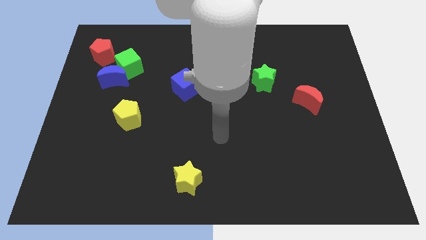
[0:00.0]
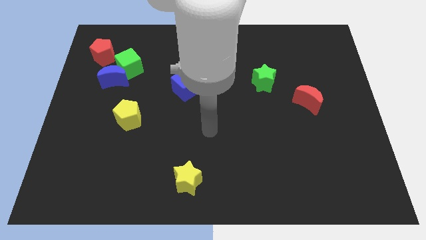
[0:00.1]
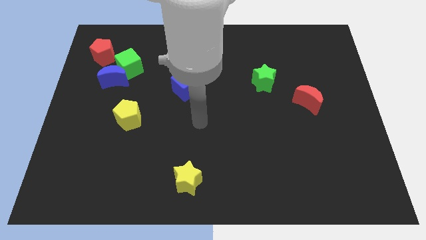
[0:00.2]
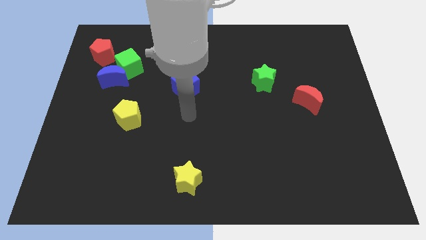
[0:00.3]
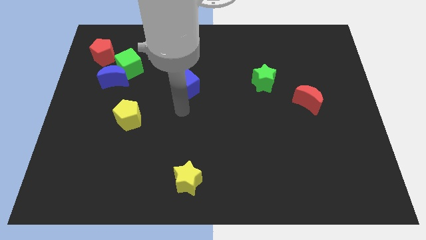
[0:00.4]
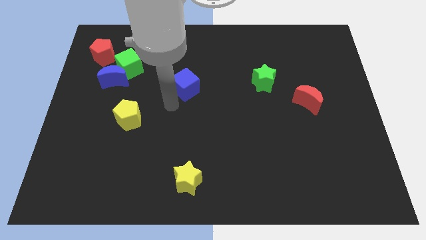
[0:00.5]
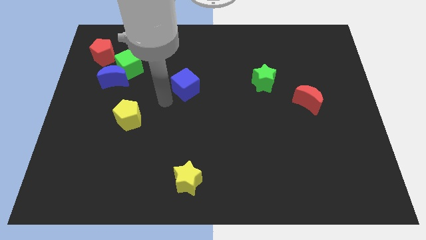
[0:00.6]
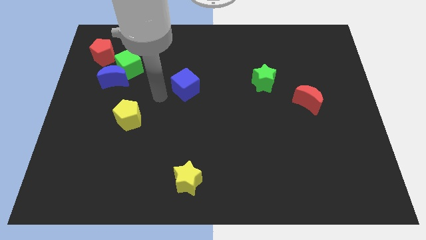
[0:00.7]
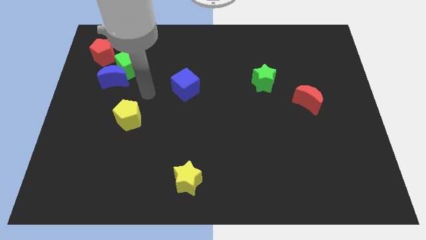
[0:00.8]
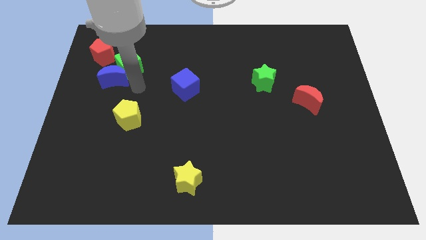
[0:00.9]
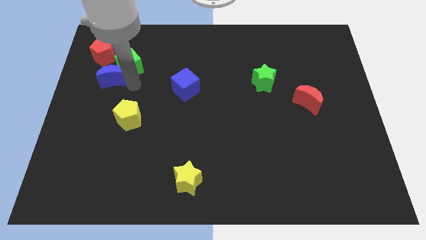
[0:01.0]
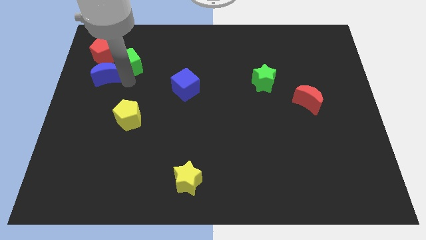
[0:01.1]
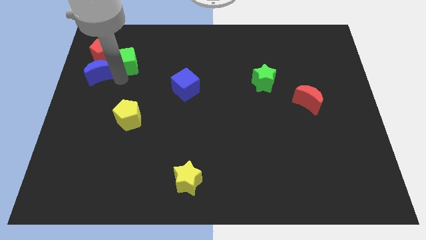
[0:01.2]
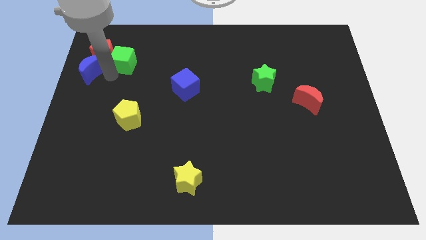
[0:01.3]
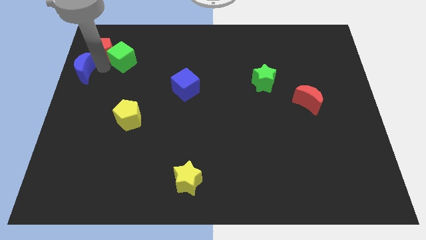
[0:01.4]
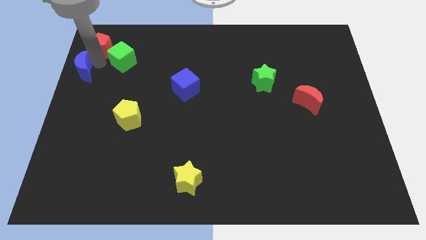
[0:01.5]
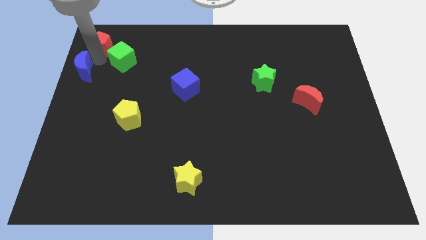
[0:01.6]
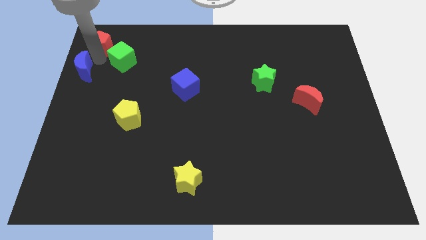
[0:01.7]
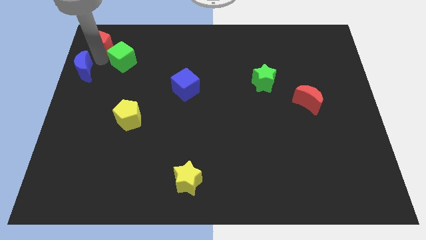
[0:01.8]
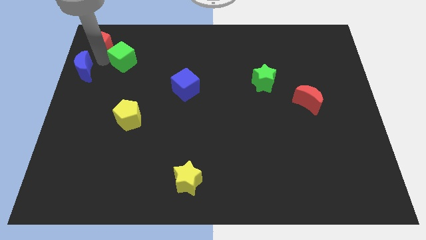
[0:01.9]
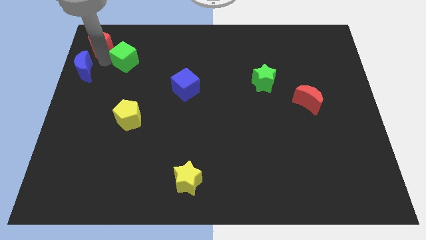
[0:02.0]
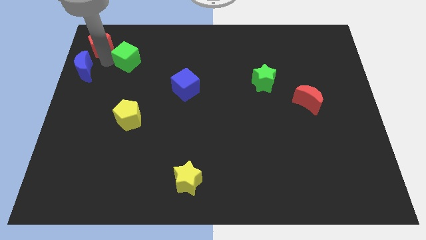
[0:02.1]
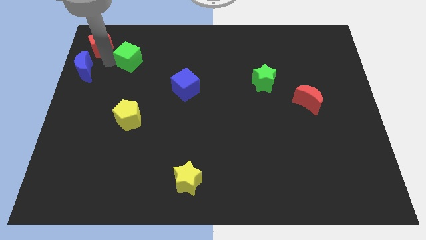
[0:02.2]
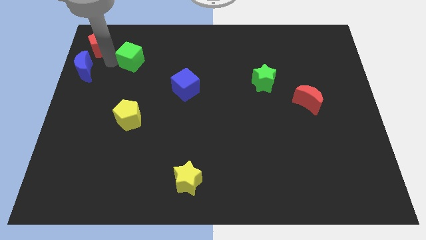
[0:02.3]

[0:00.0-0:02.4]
move the green cube away from the blue moon and red pentagon

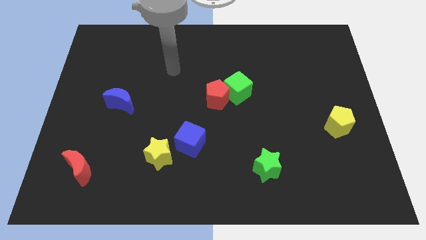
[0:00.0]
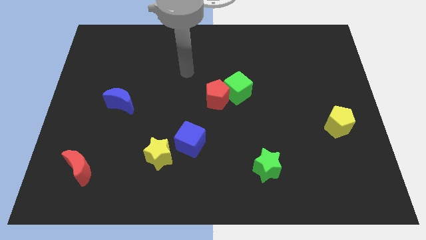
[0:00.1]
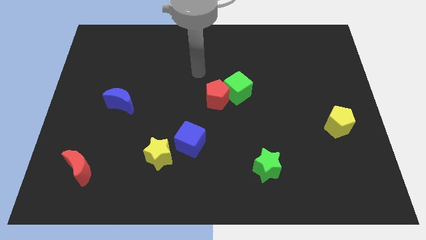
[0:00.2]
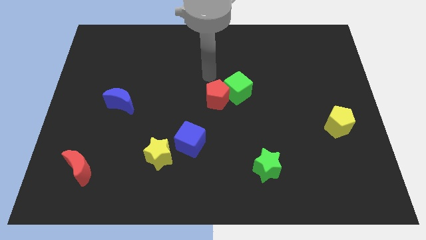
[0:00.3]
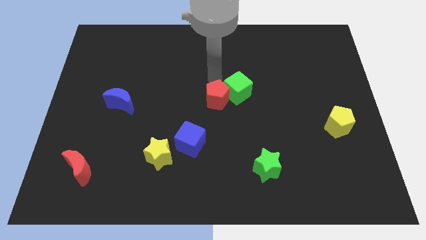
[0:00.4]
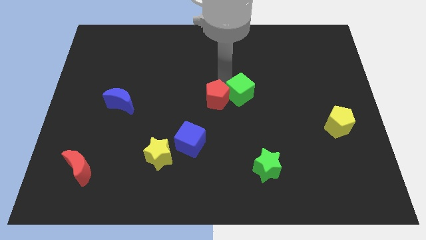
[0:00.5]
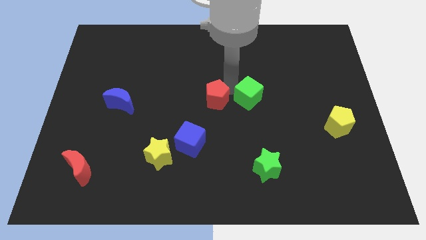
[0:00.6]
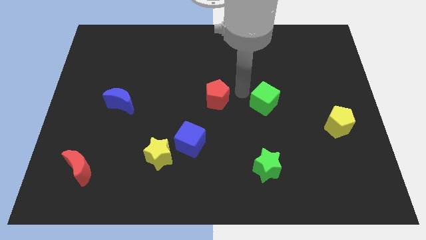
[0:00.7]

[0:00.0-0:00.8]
move the red pentagon away from the green cube

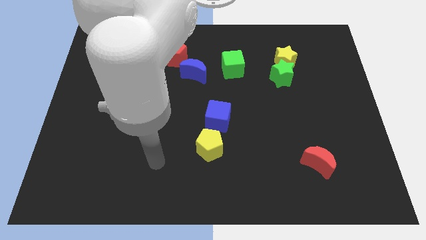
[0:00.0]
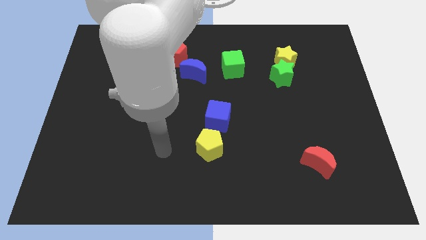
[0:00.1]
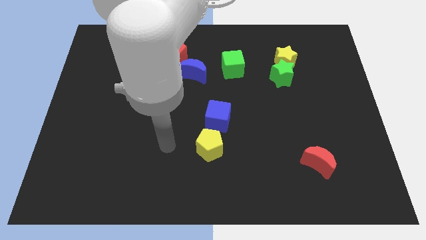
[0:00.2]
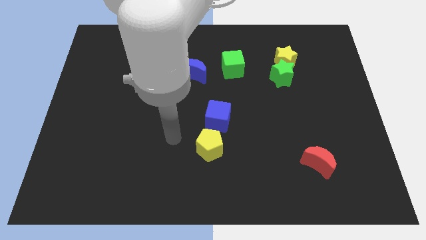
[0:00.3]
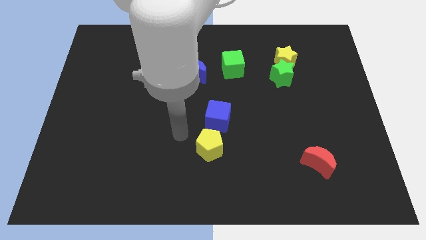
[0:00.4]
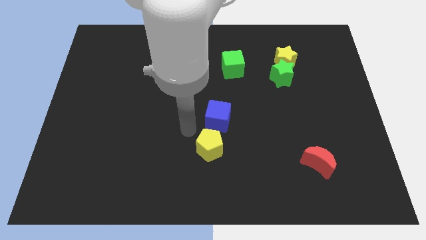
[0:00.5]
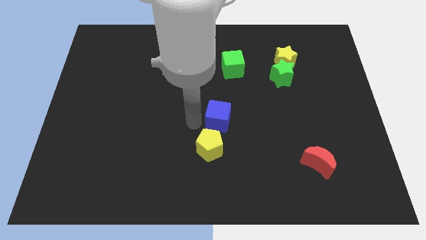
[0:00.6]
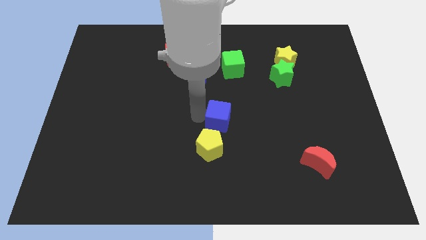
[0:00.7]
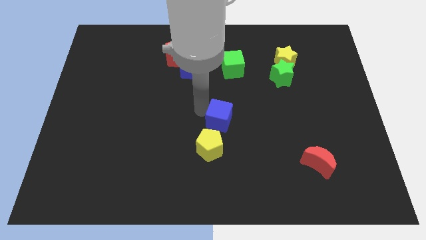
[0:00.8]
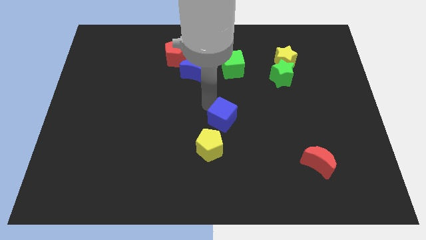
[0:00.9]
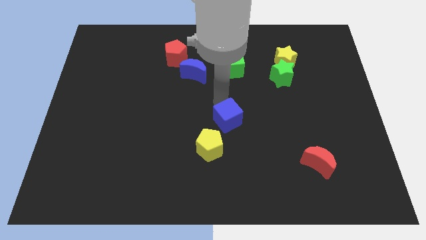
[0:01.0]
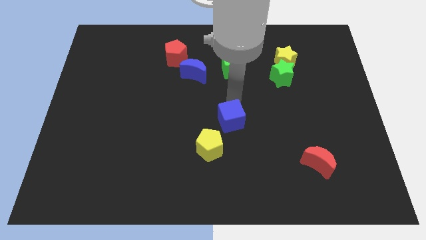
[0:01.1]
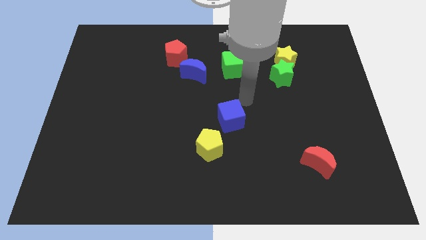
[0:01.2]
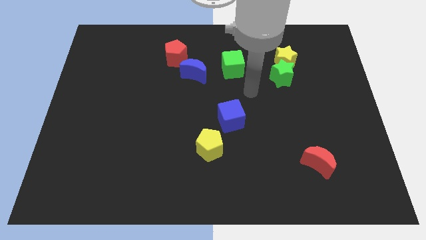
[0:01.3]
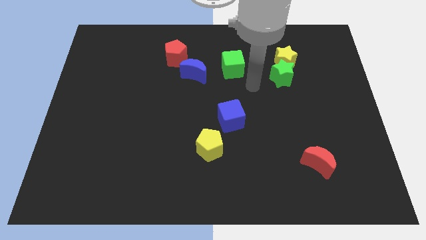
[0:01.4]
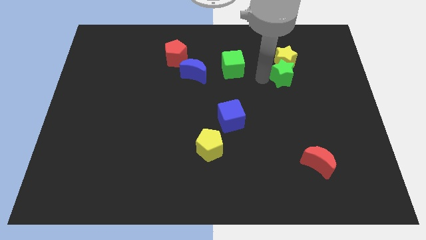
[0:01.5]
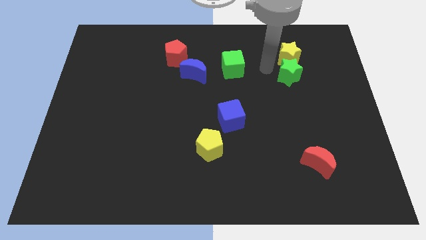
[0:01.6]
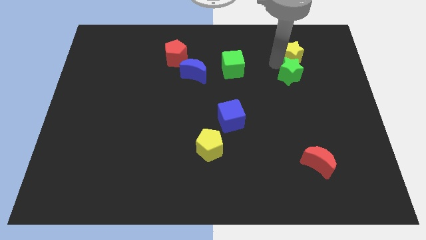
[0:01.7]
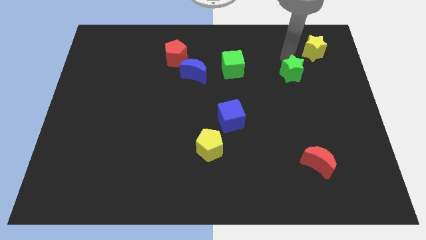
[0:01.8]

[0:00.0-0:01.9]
move the green star away from the yellow star

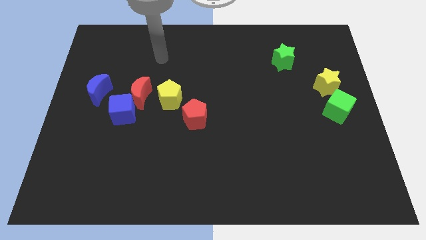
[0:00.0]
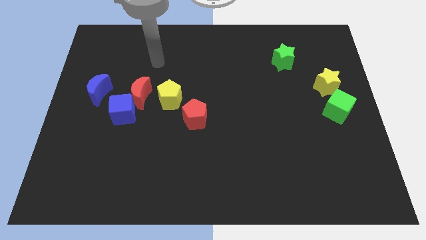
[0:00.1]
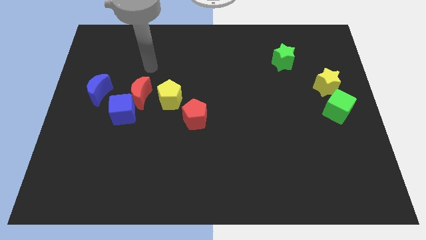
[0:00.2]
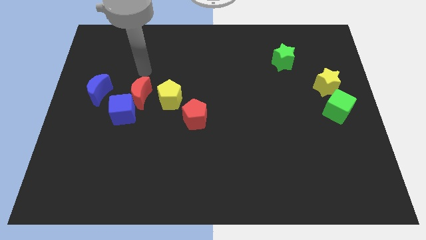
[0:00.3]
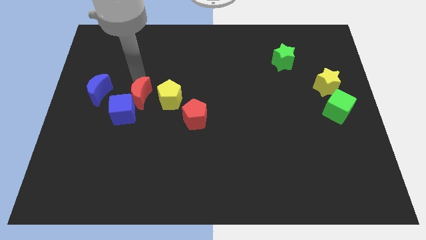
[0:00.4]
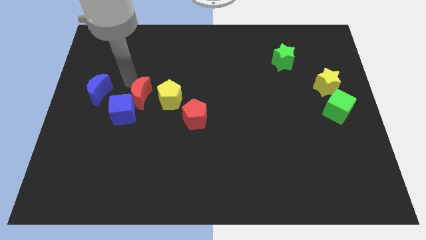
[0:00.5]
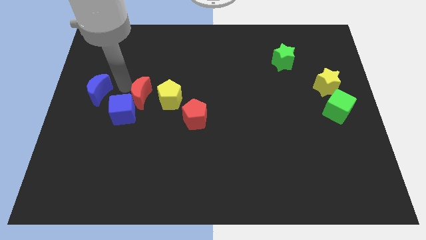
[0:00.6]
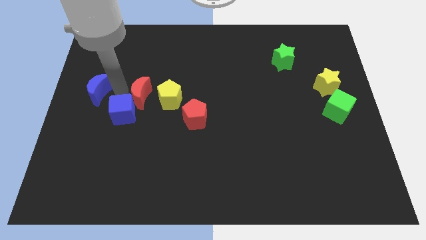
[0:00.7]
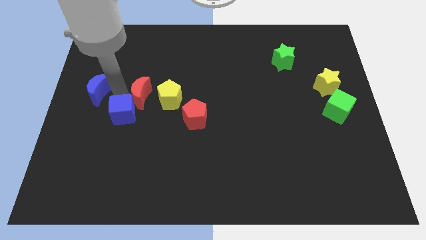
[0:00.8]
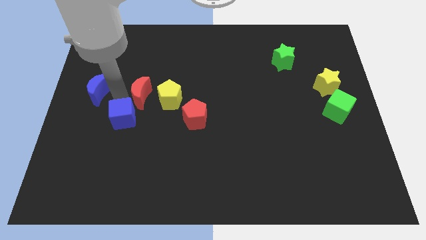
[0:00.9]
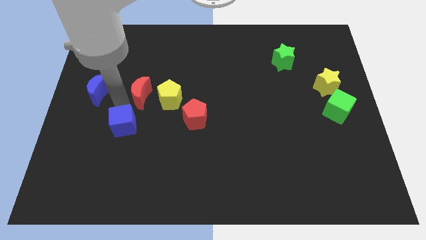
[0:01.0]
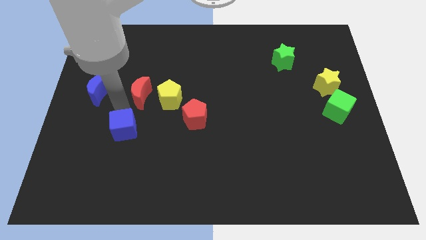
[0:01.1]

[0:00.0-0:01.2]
move the blue cube away from the red moon and blue moon

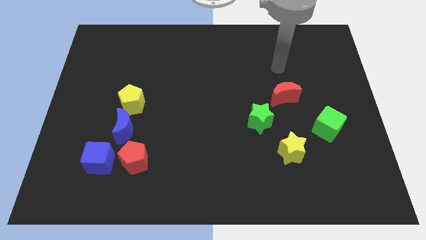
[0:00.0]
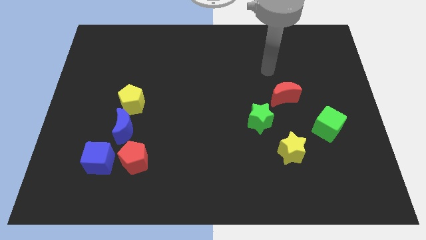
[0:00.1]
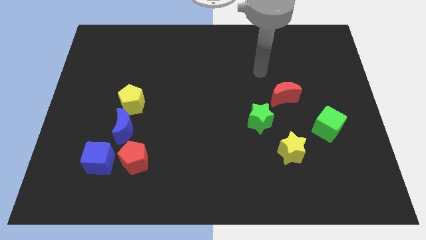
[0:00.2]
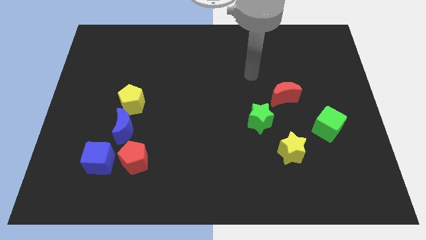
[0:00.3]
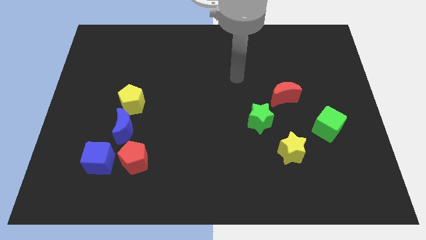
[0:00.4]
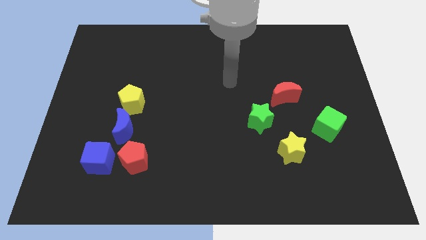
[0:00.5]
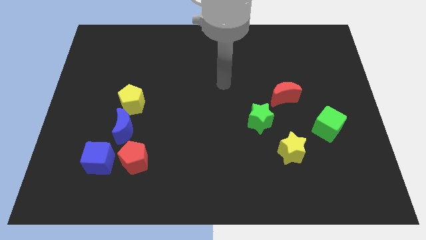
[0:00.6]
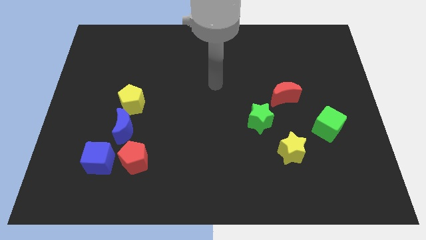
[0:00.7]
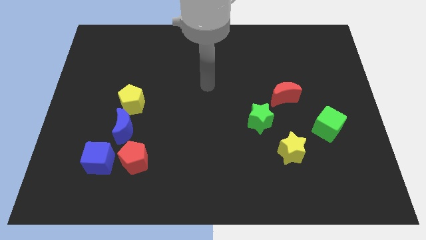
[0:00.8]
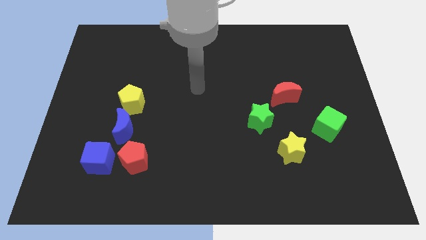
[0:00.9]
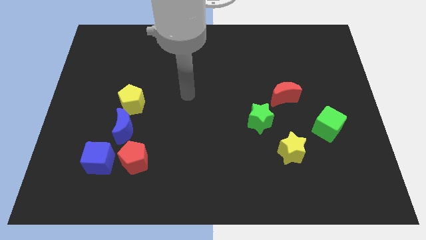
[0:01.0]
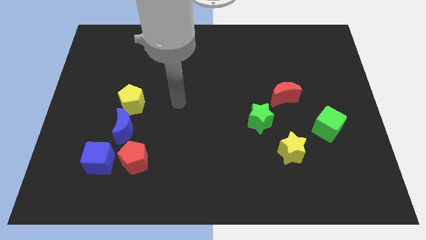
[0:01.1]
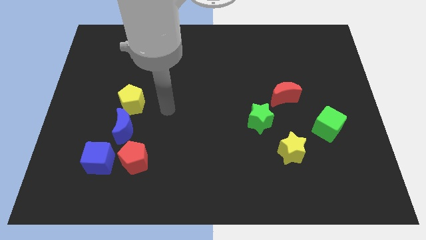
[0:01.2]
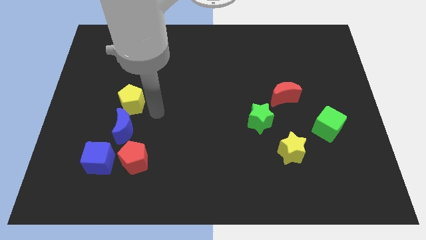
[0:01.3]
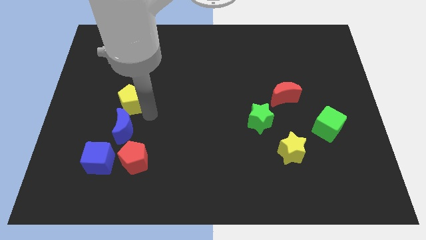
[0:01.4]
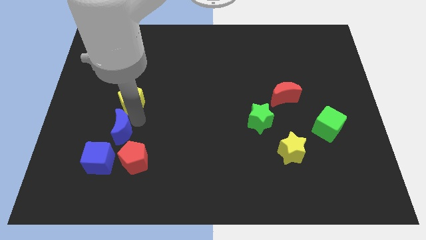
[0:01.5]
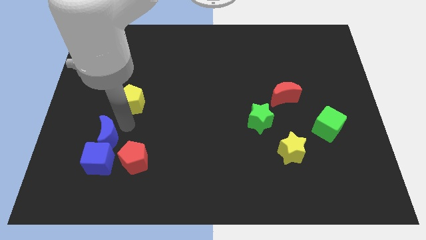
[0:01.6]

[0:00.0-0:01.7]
move the yellow pentagon away from the blue moon

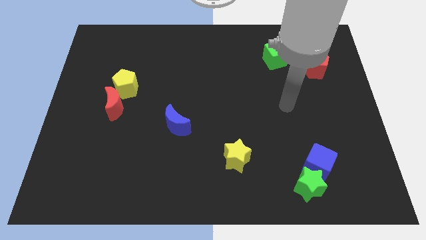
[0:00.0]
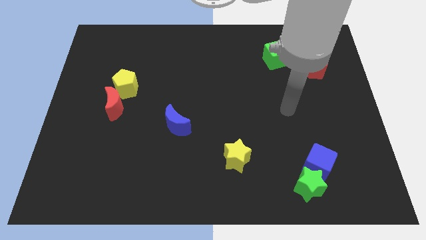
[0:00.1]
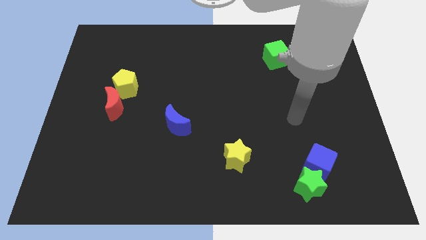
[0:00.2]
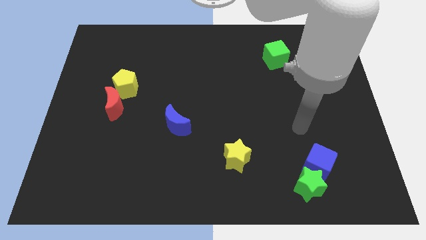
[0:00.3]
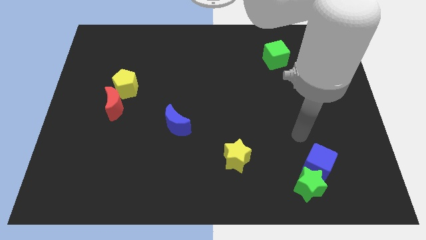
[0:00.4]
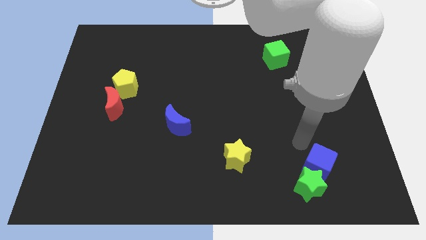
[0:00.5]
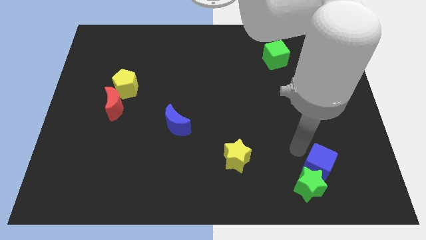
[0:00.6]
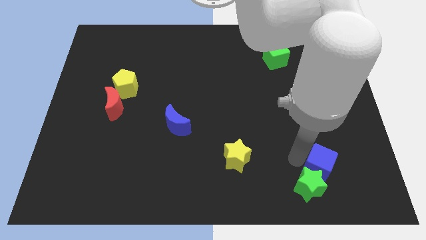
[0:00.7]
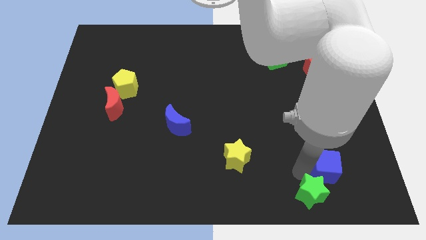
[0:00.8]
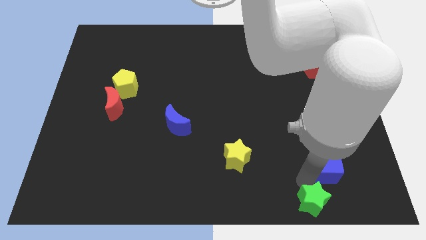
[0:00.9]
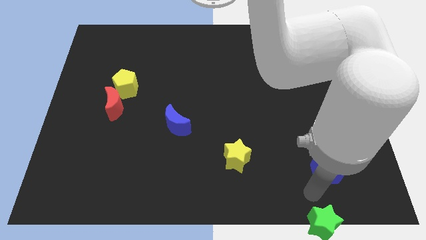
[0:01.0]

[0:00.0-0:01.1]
separate the blue cube from the green star

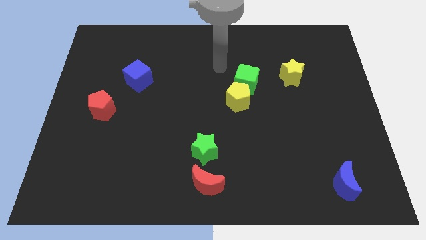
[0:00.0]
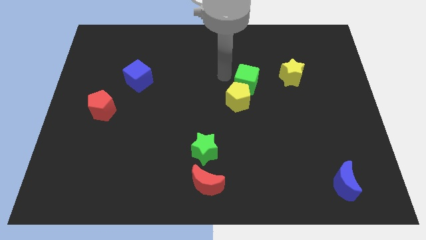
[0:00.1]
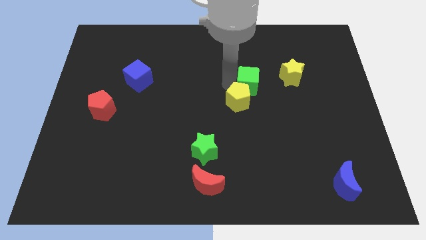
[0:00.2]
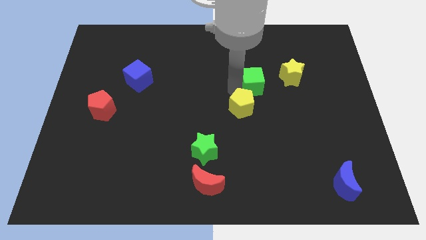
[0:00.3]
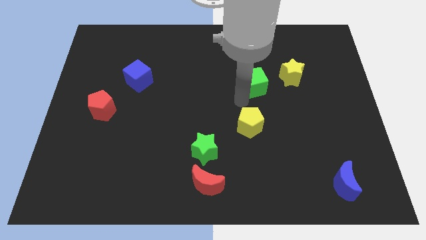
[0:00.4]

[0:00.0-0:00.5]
move the green cube away from the yellow pentagon
